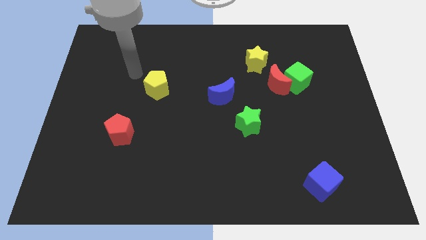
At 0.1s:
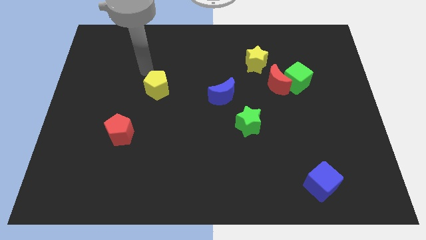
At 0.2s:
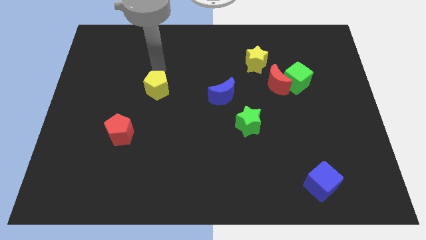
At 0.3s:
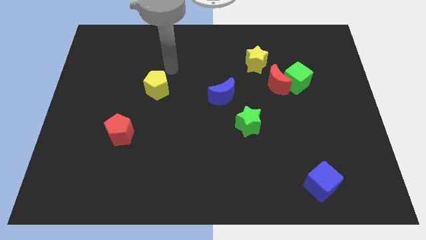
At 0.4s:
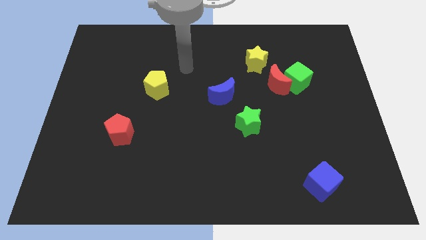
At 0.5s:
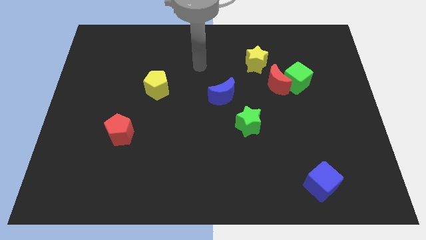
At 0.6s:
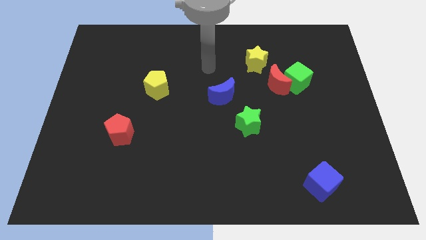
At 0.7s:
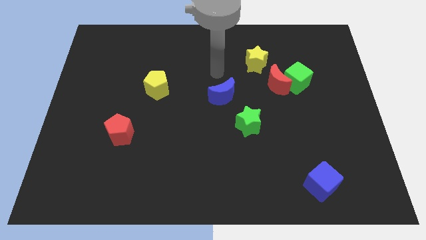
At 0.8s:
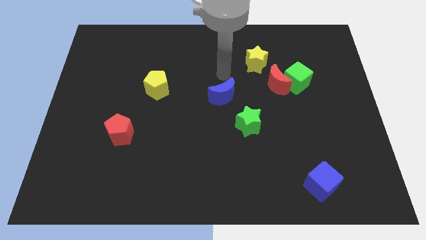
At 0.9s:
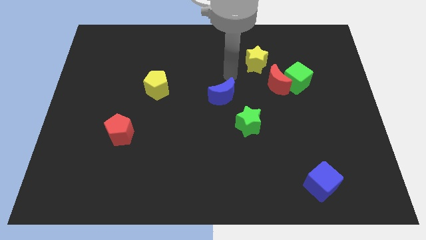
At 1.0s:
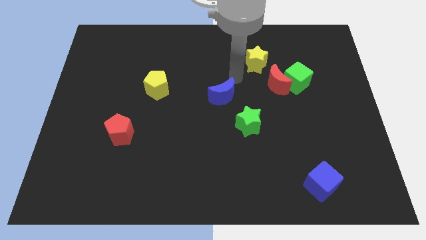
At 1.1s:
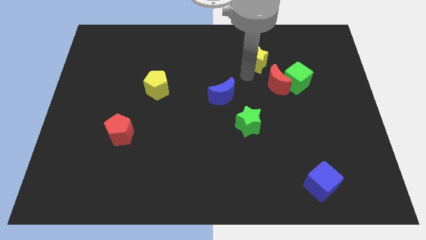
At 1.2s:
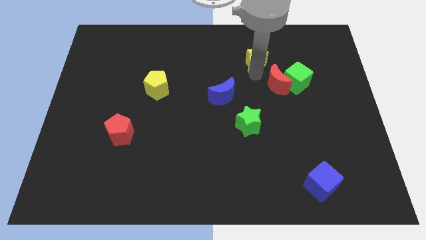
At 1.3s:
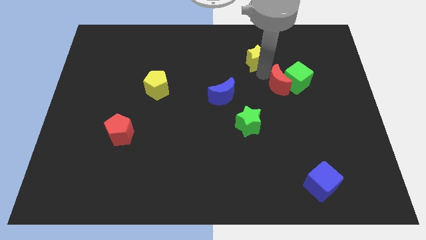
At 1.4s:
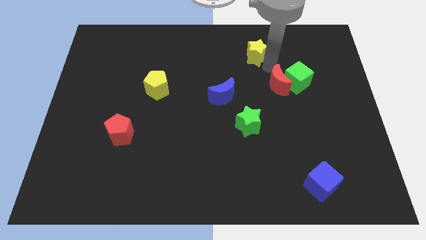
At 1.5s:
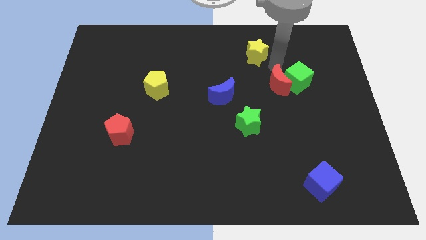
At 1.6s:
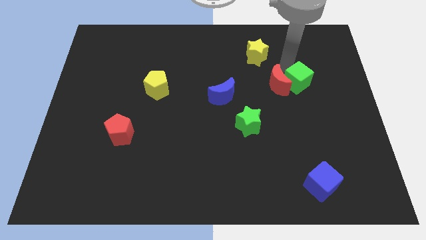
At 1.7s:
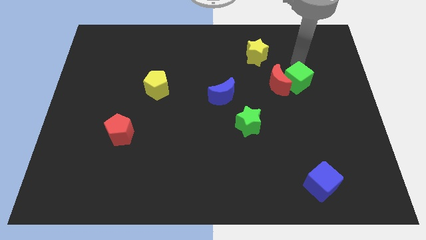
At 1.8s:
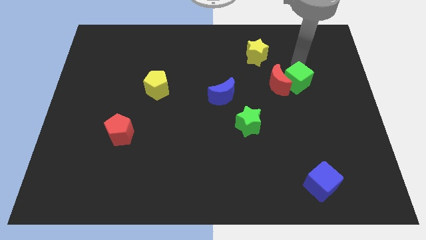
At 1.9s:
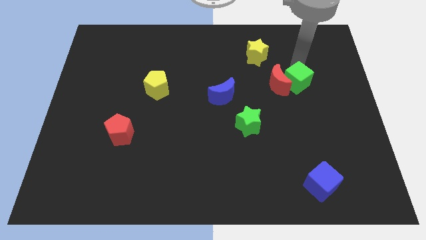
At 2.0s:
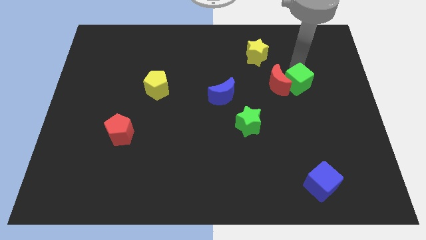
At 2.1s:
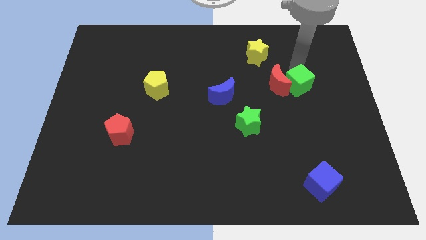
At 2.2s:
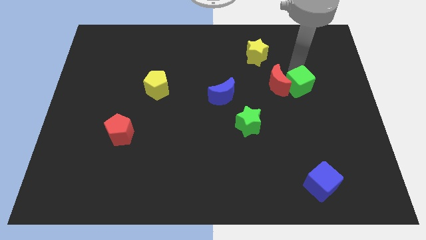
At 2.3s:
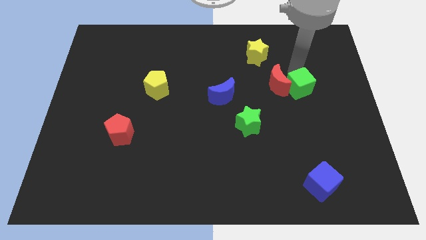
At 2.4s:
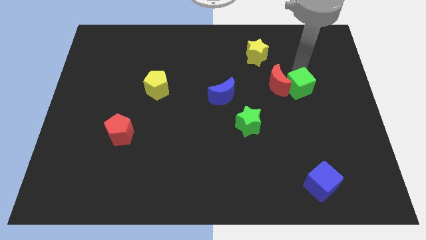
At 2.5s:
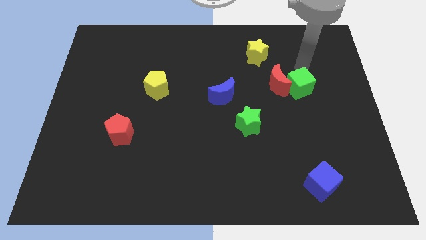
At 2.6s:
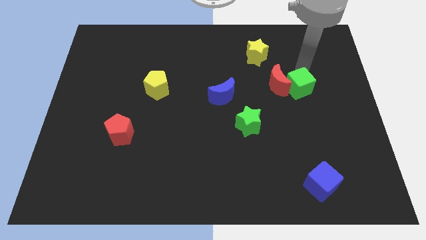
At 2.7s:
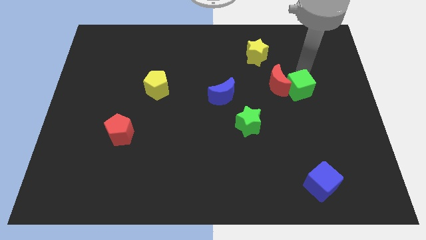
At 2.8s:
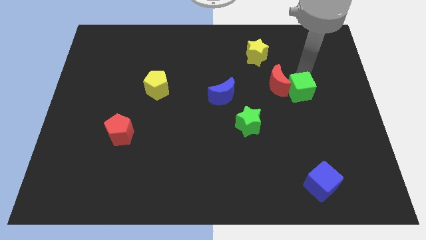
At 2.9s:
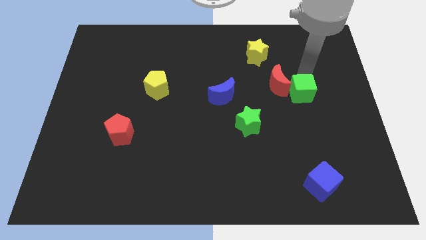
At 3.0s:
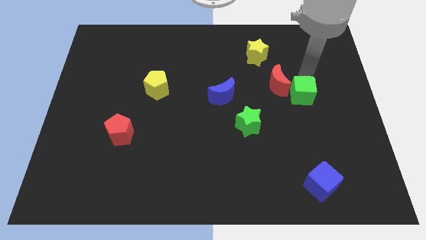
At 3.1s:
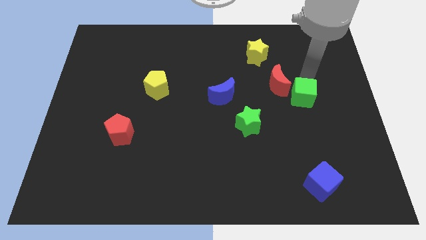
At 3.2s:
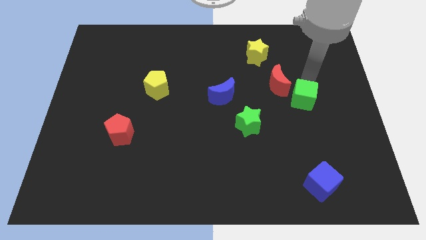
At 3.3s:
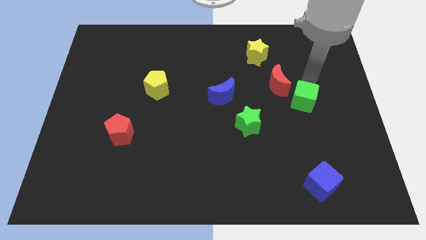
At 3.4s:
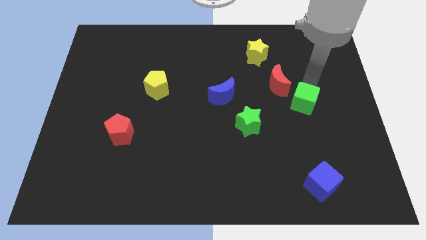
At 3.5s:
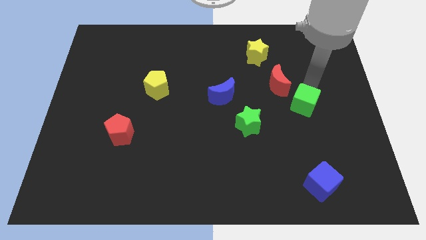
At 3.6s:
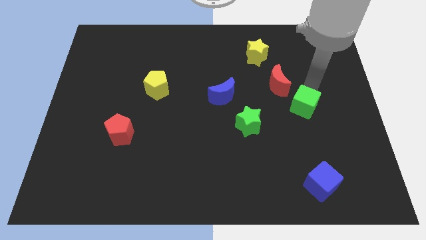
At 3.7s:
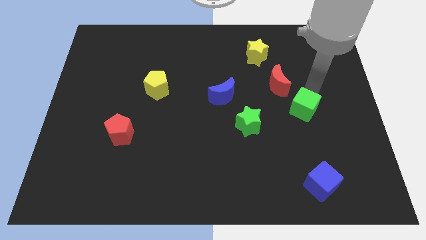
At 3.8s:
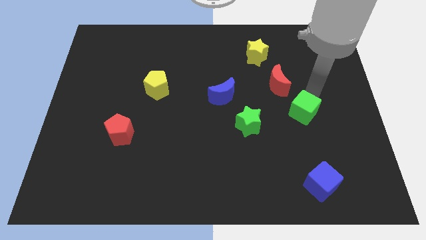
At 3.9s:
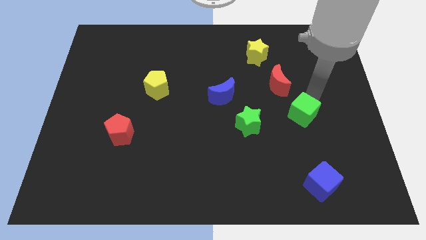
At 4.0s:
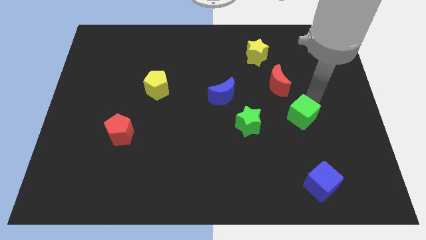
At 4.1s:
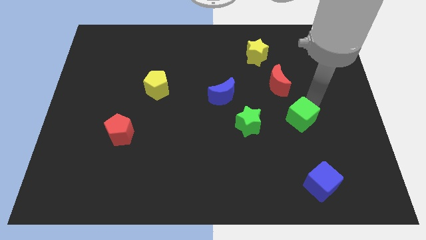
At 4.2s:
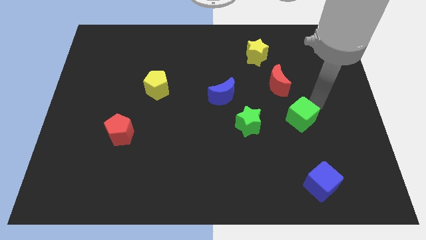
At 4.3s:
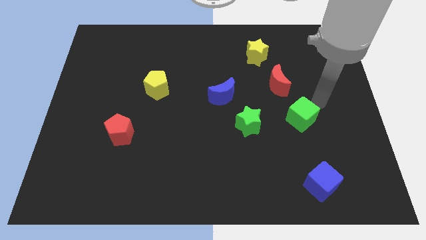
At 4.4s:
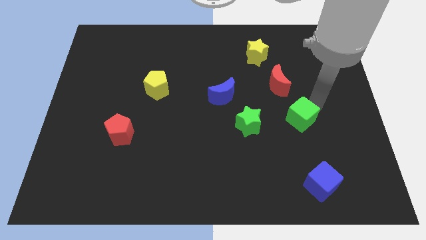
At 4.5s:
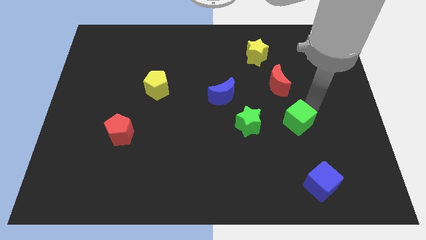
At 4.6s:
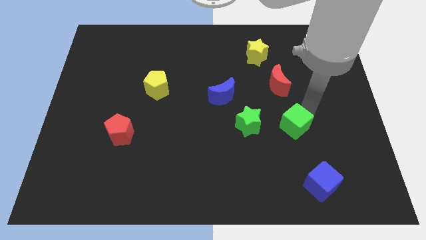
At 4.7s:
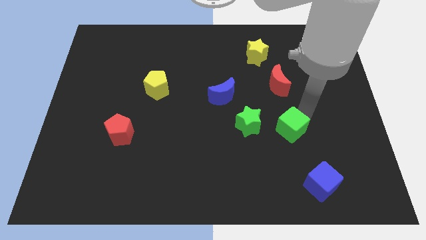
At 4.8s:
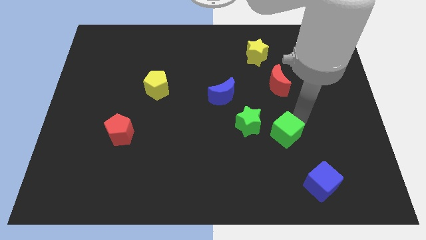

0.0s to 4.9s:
push the green cube to the bottom right side of the green star

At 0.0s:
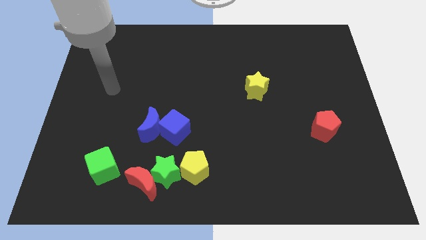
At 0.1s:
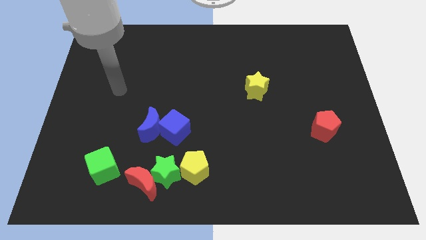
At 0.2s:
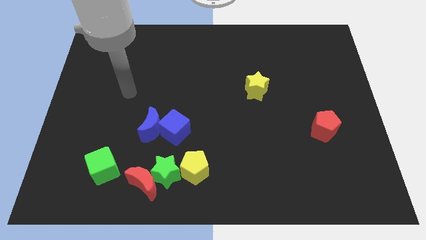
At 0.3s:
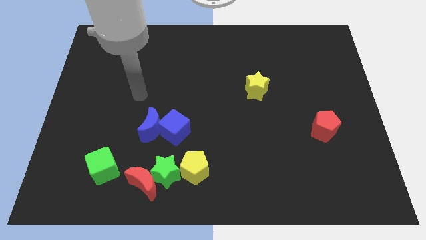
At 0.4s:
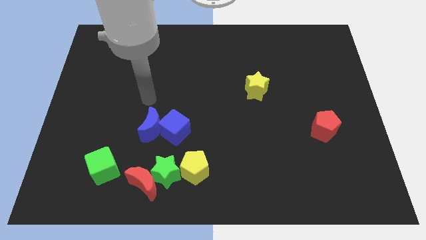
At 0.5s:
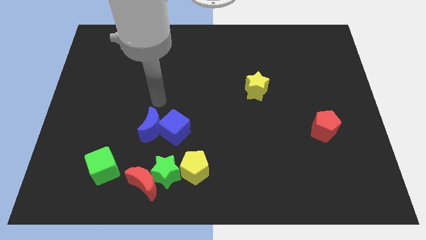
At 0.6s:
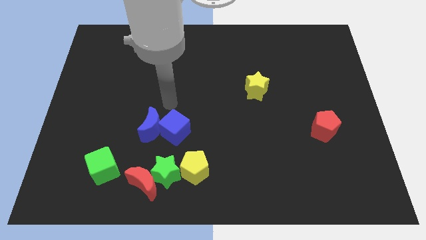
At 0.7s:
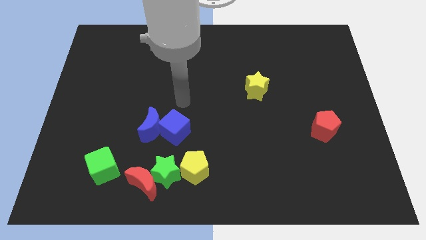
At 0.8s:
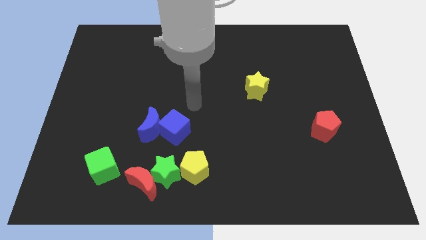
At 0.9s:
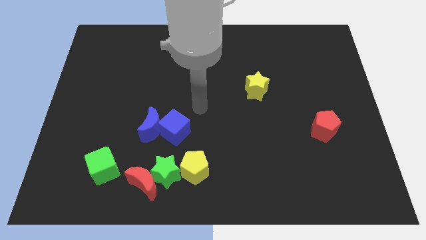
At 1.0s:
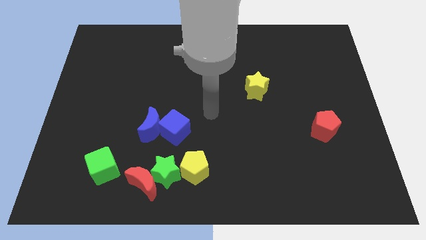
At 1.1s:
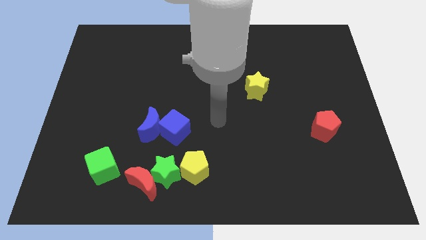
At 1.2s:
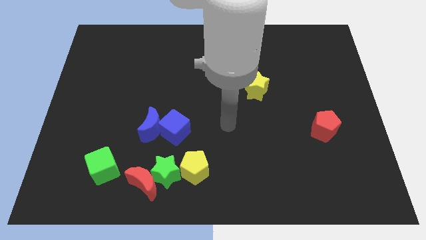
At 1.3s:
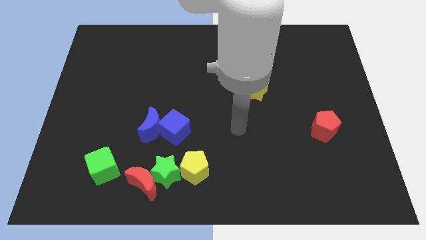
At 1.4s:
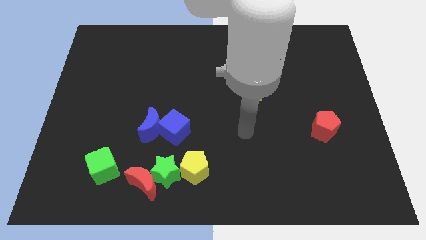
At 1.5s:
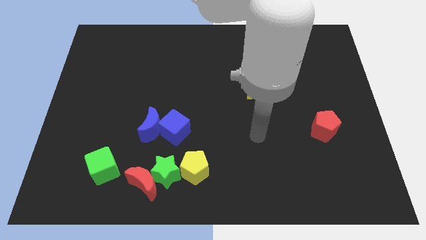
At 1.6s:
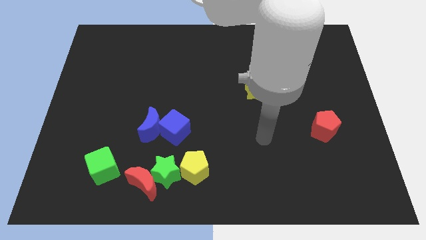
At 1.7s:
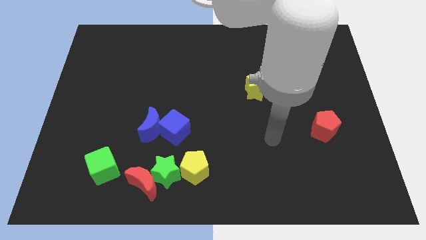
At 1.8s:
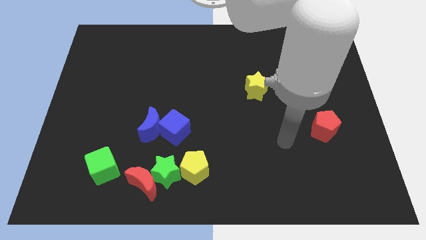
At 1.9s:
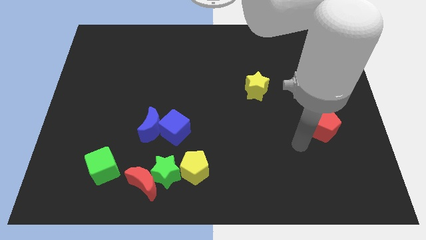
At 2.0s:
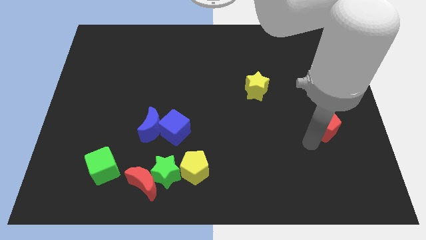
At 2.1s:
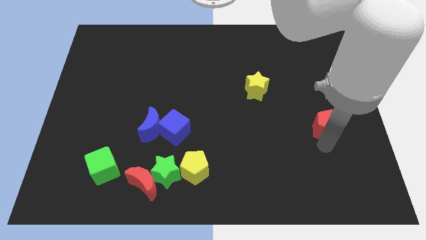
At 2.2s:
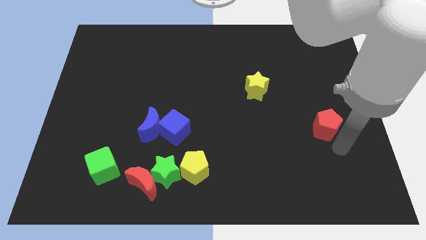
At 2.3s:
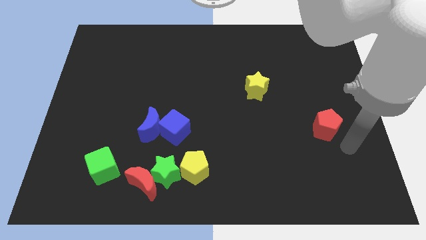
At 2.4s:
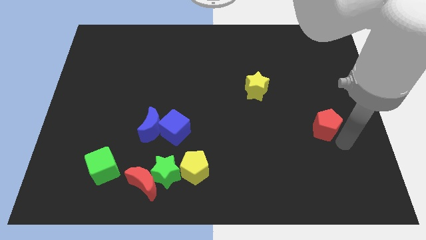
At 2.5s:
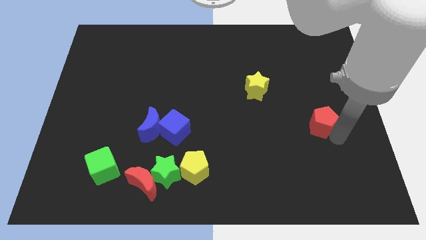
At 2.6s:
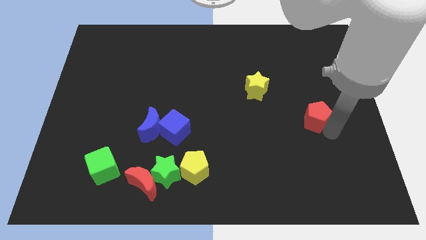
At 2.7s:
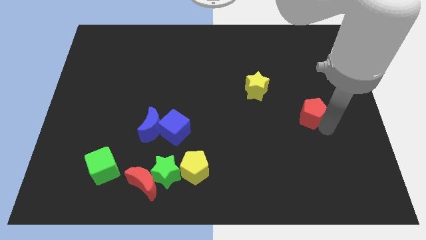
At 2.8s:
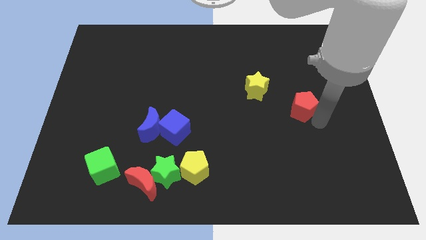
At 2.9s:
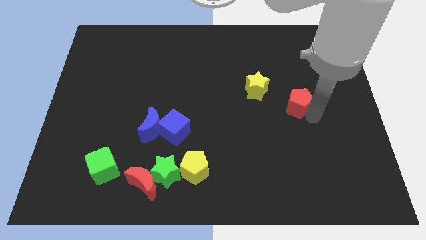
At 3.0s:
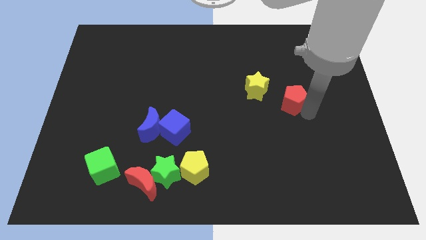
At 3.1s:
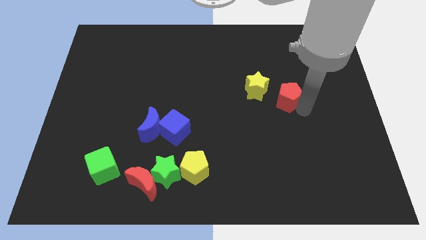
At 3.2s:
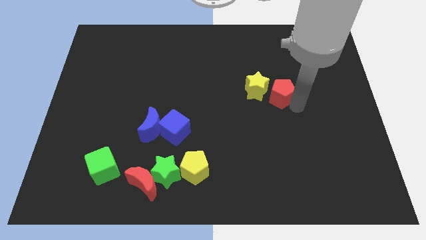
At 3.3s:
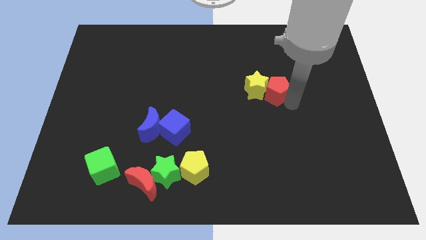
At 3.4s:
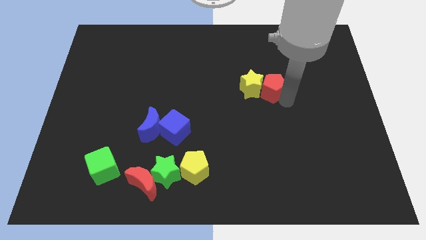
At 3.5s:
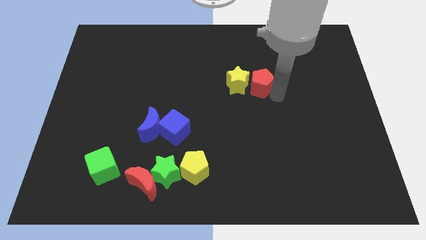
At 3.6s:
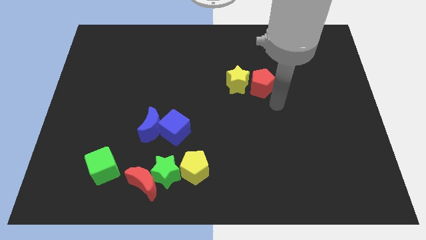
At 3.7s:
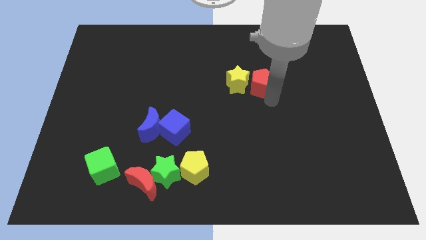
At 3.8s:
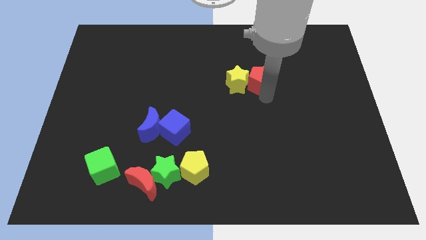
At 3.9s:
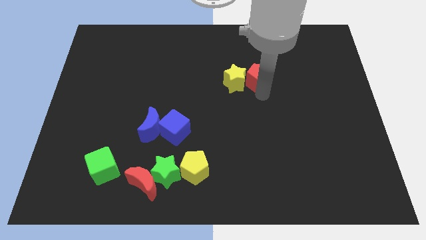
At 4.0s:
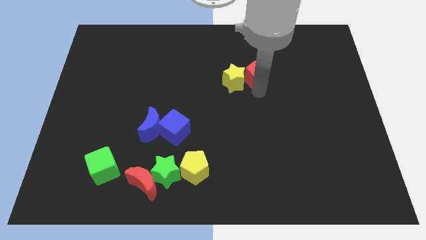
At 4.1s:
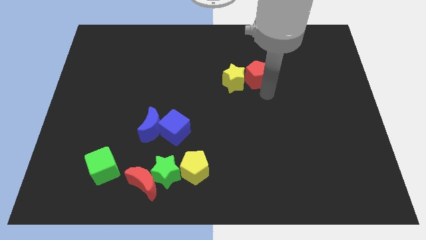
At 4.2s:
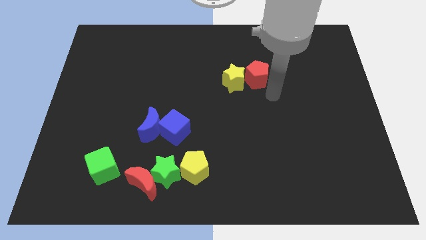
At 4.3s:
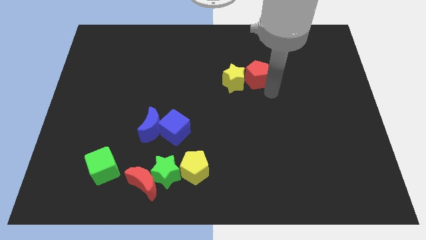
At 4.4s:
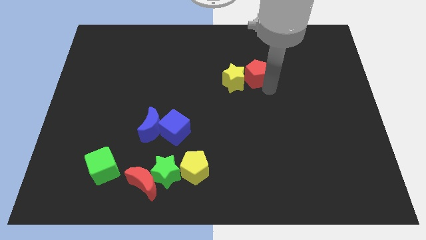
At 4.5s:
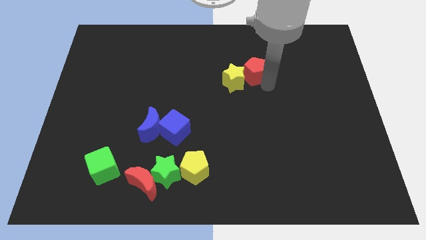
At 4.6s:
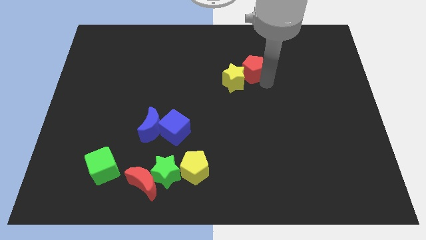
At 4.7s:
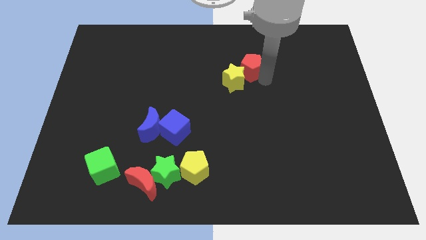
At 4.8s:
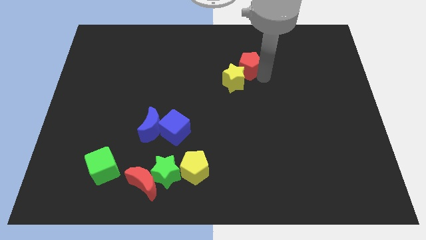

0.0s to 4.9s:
push the red pentagon to the top side of the yellow star
